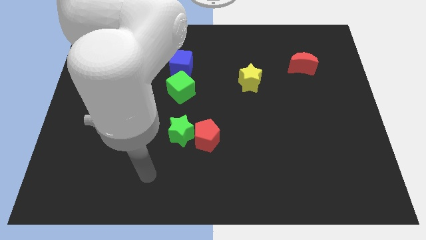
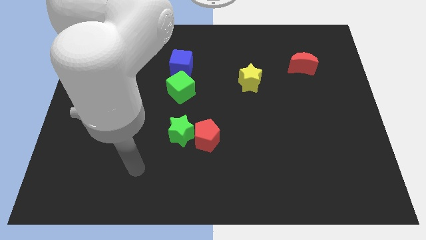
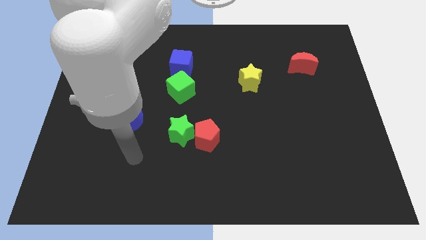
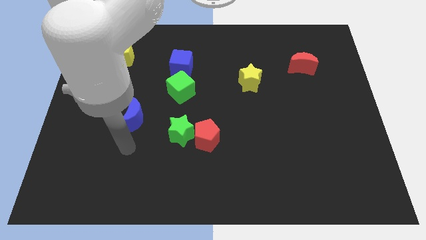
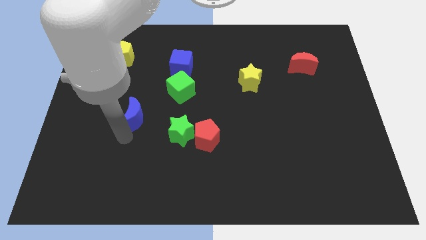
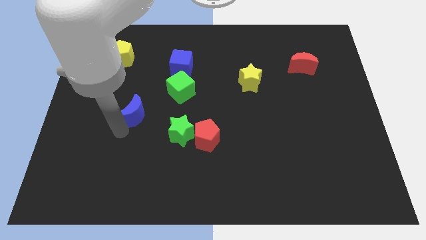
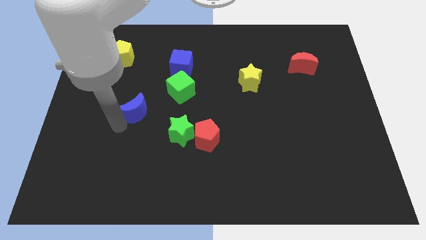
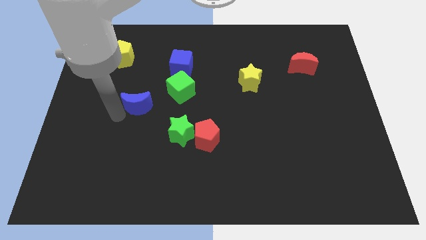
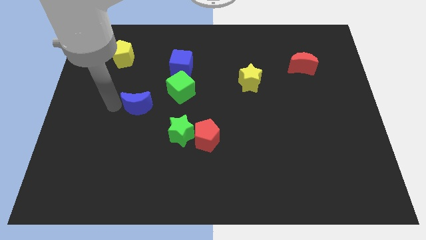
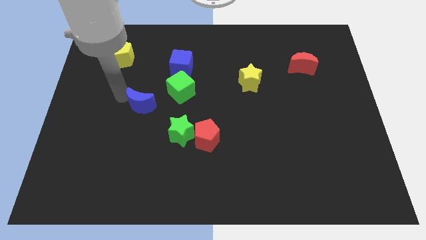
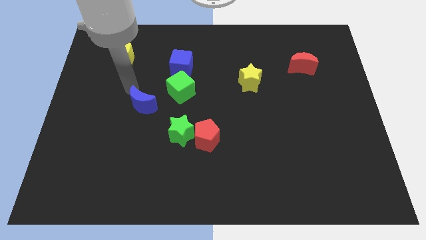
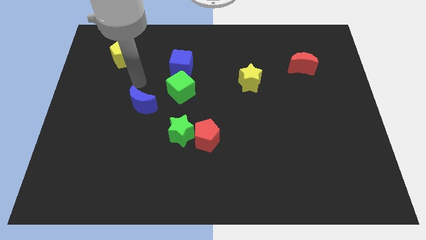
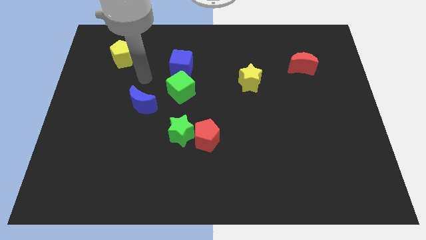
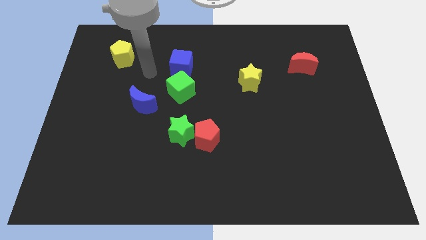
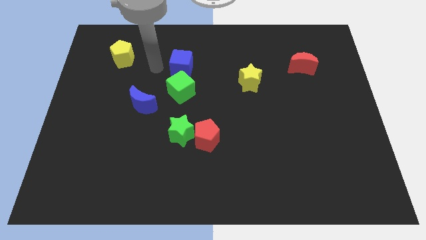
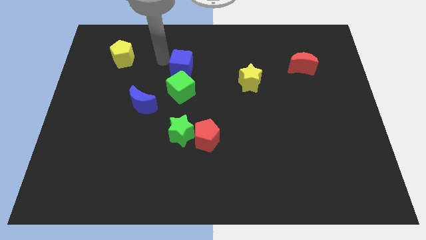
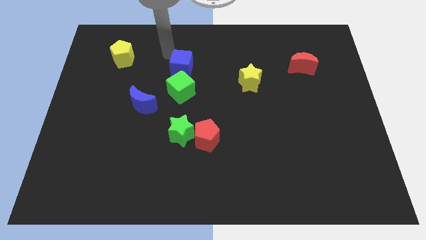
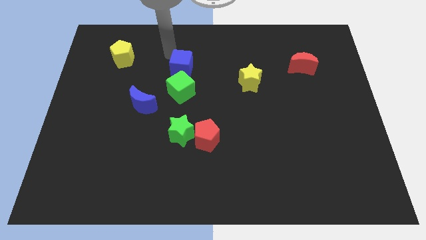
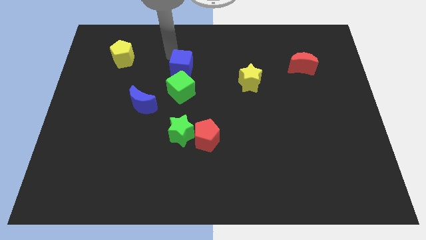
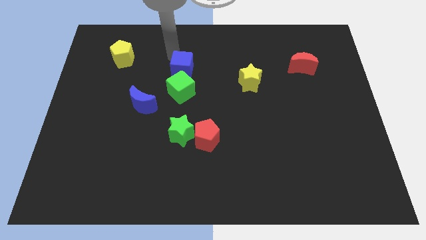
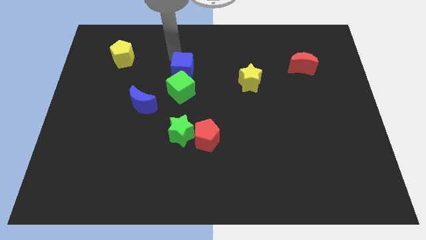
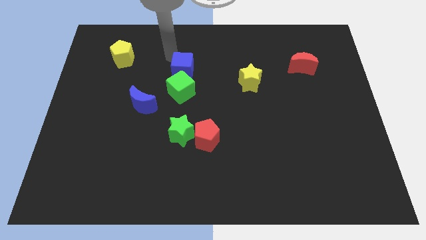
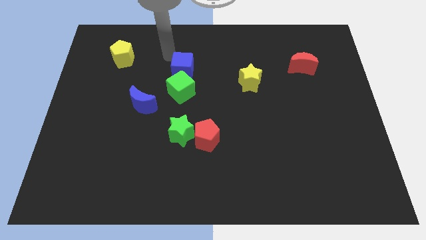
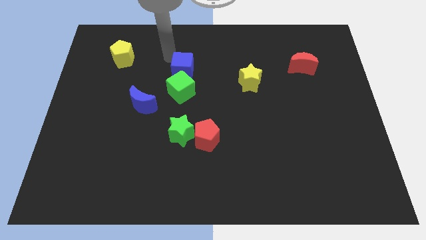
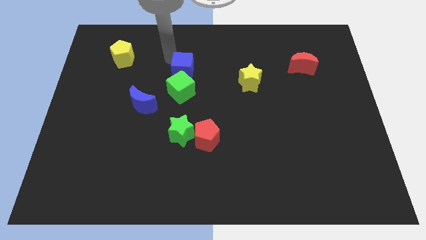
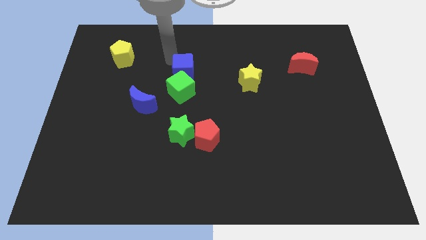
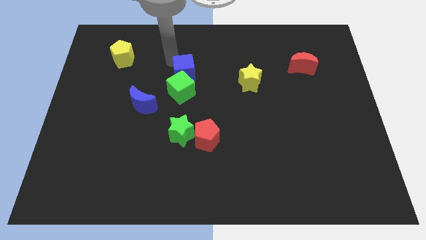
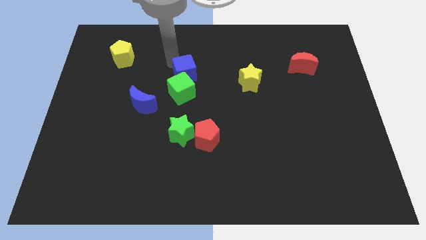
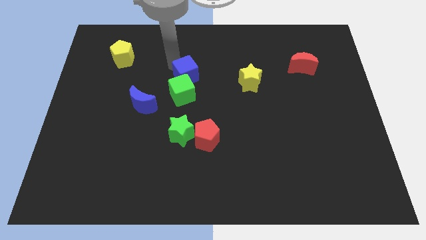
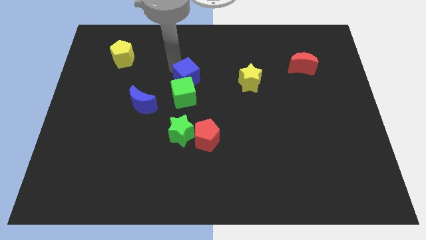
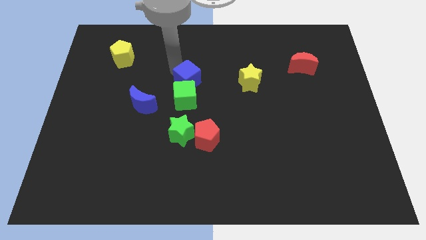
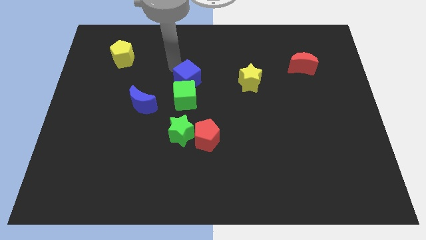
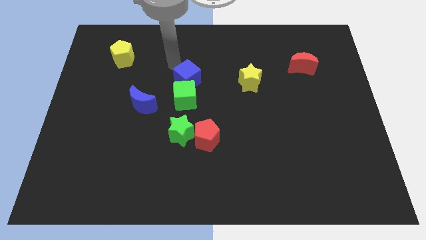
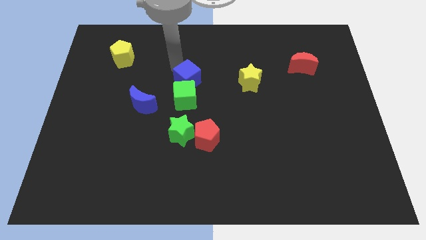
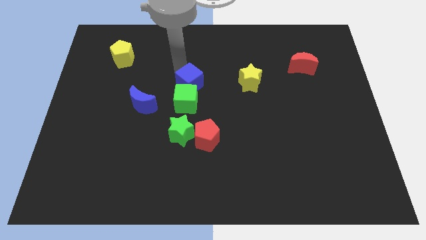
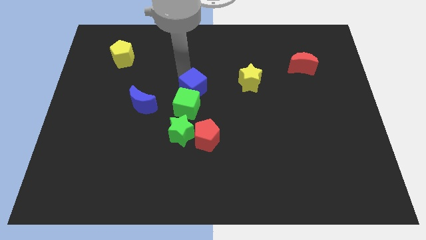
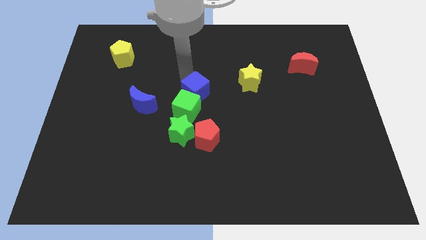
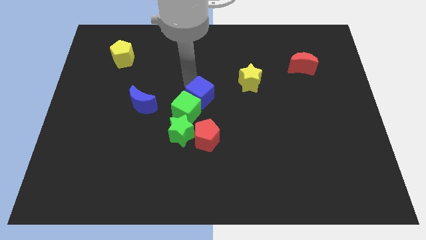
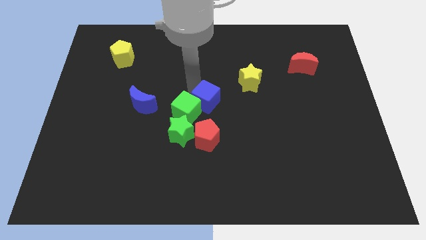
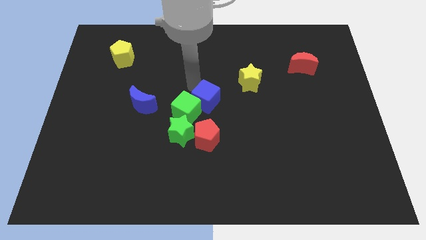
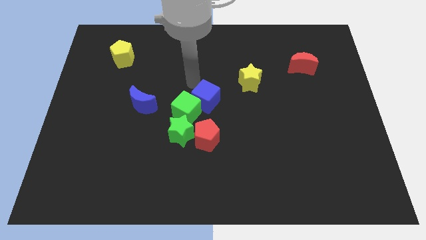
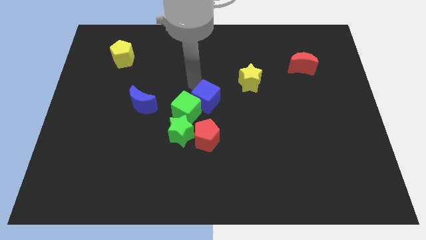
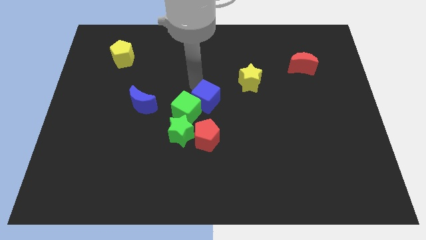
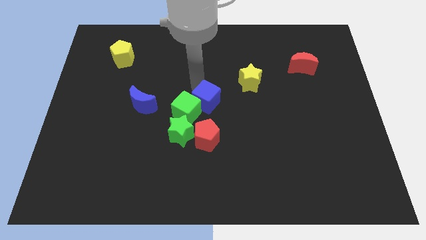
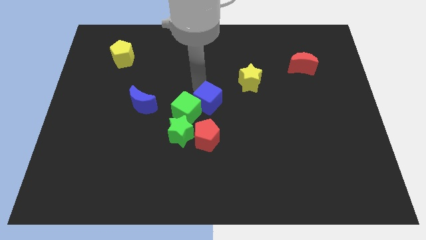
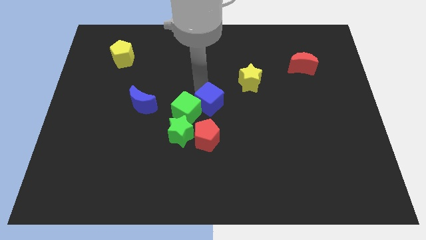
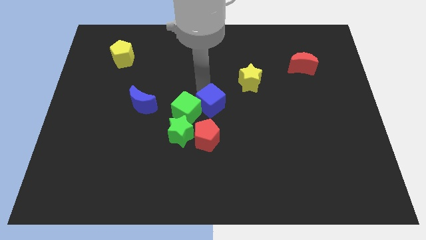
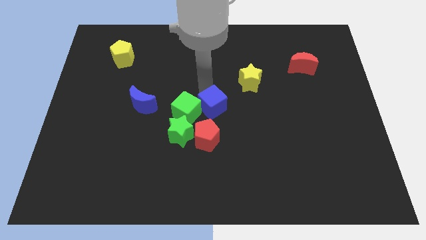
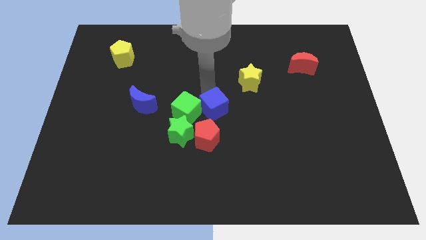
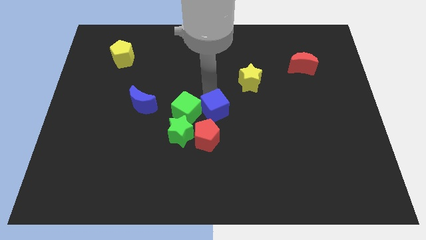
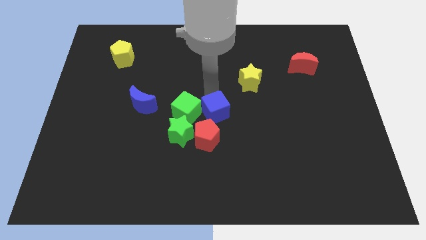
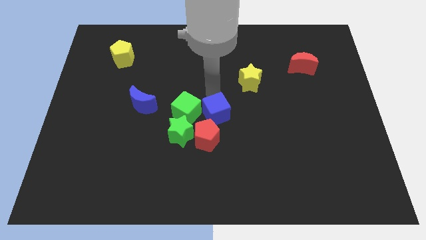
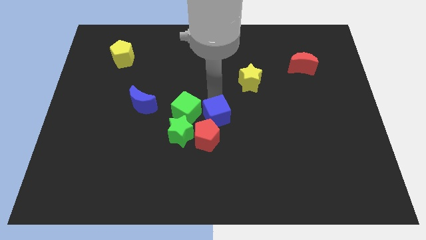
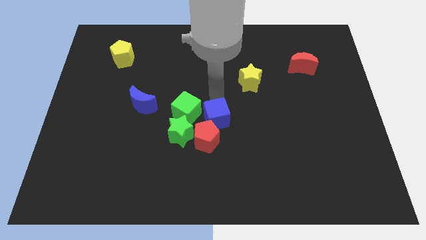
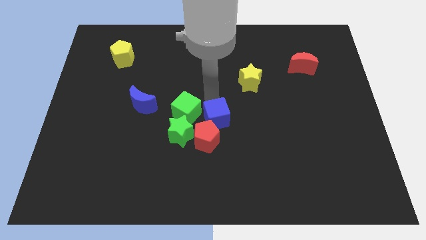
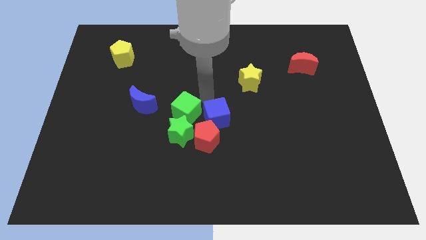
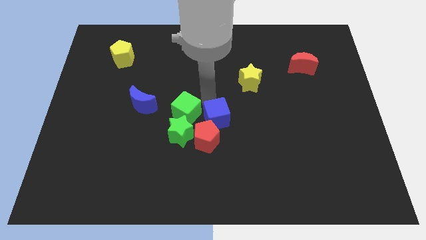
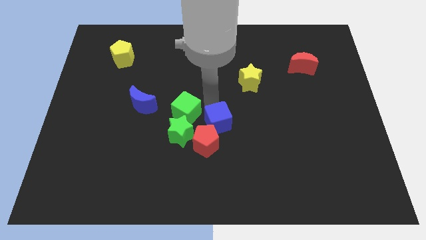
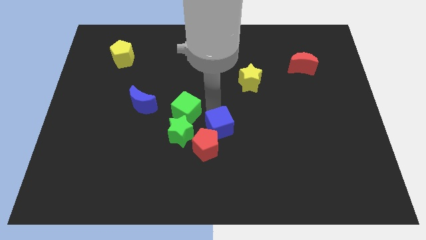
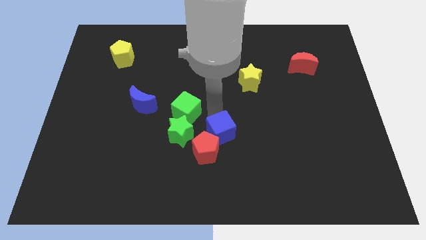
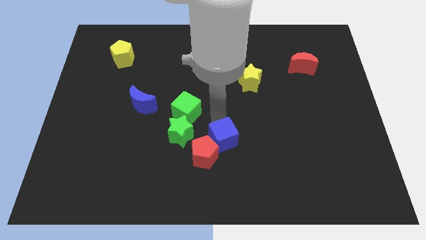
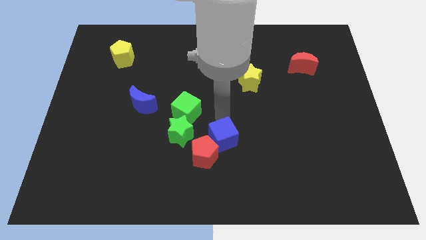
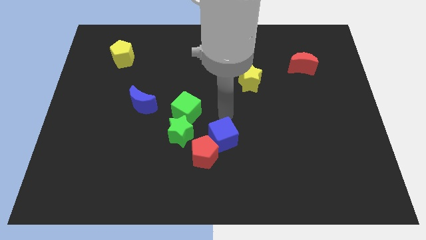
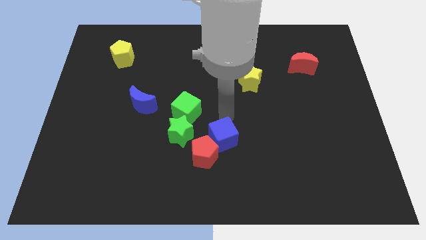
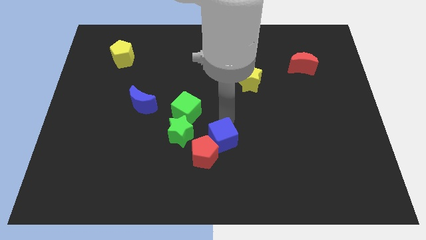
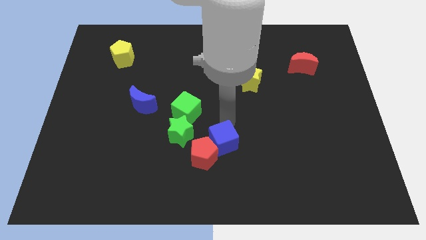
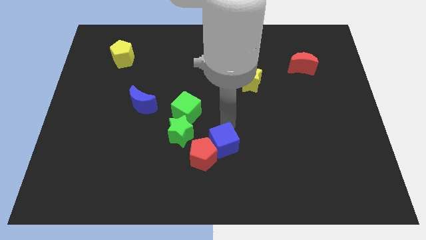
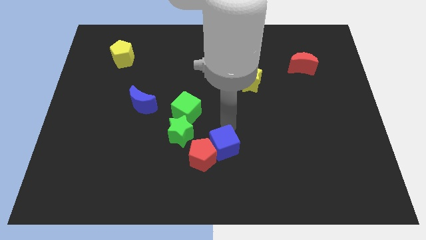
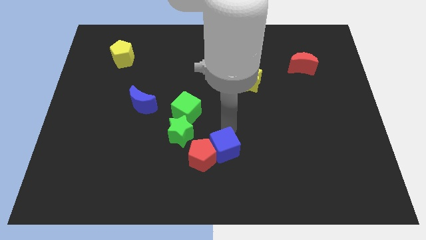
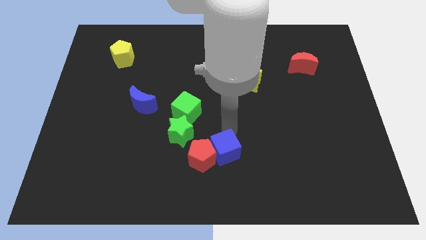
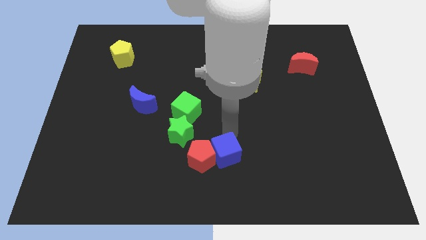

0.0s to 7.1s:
slide the blue cube to the bottom
